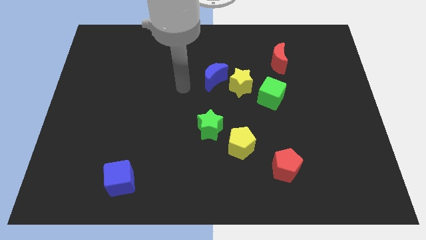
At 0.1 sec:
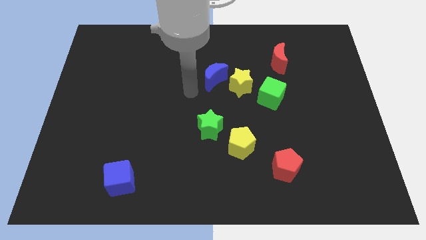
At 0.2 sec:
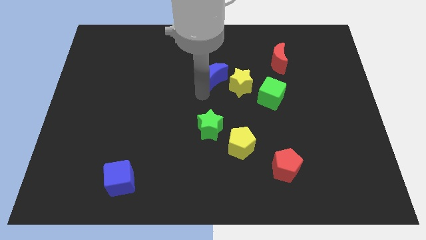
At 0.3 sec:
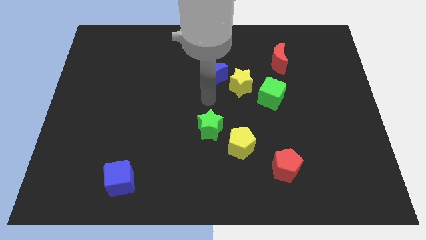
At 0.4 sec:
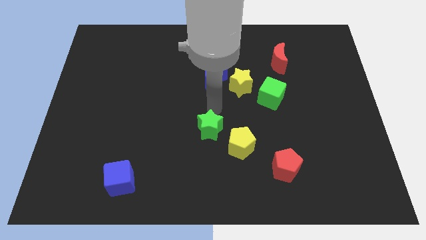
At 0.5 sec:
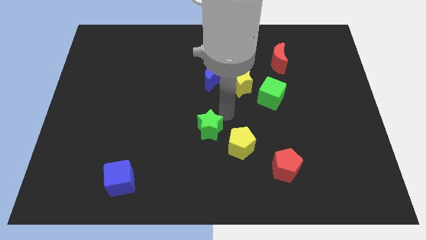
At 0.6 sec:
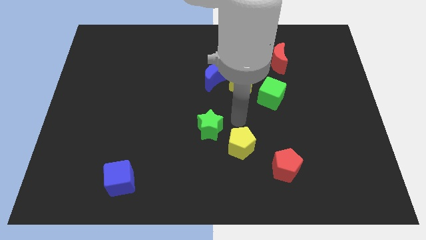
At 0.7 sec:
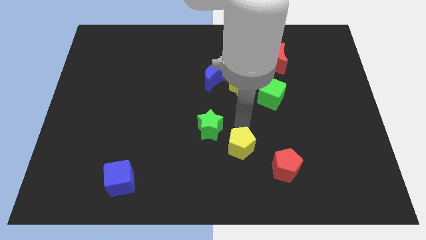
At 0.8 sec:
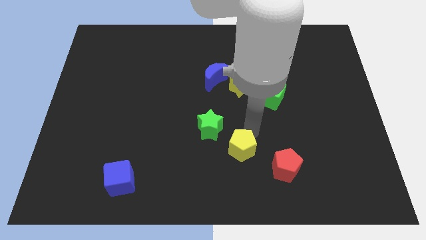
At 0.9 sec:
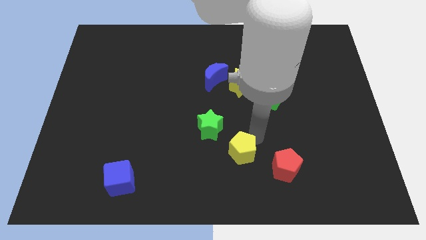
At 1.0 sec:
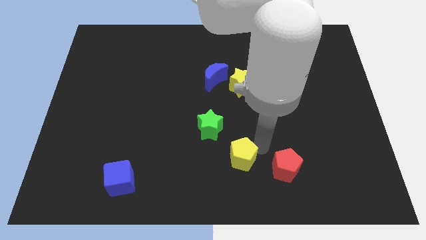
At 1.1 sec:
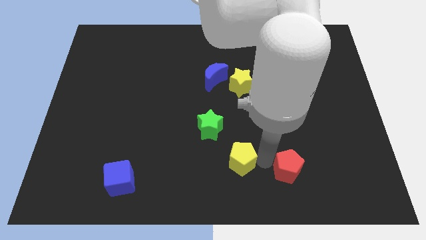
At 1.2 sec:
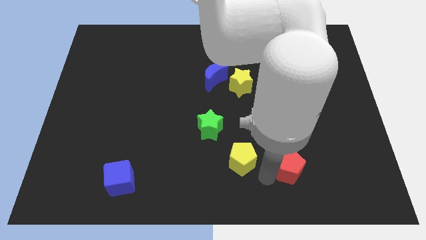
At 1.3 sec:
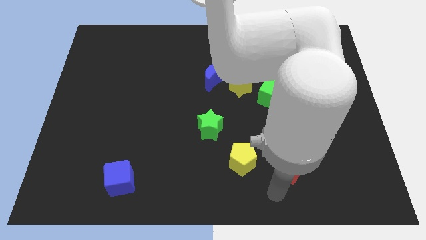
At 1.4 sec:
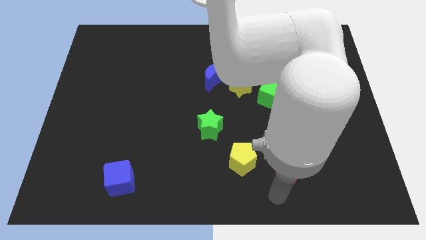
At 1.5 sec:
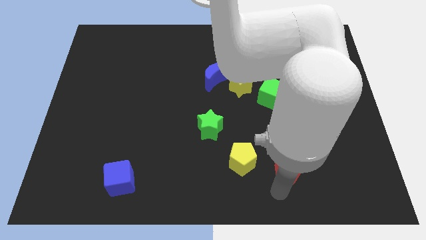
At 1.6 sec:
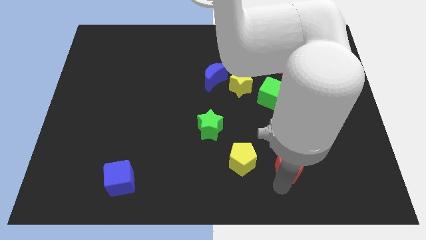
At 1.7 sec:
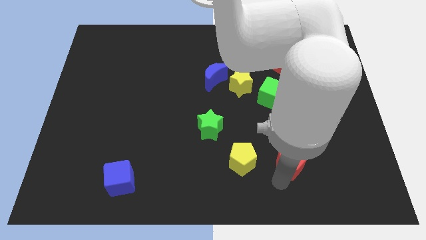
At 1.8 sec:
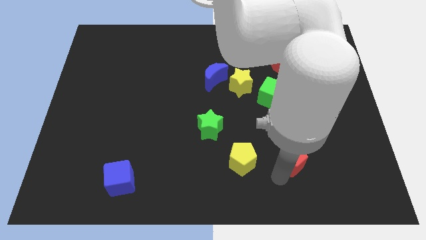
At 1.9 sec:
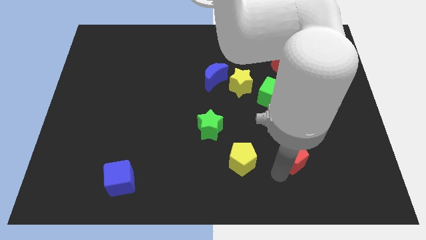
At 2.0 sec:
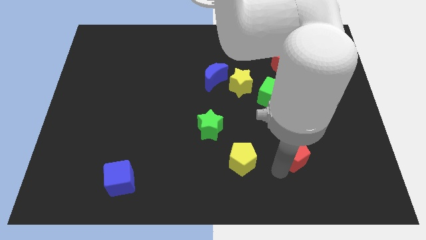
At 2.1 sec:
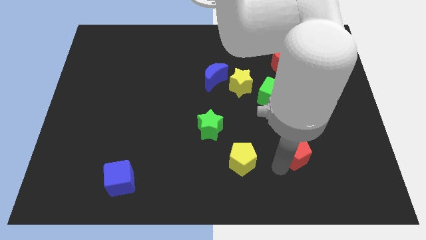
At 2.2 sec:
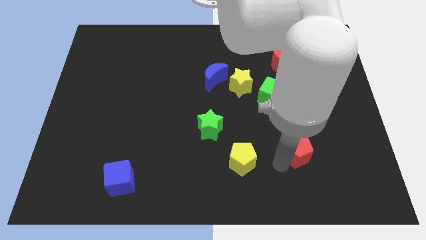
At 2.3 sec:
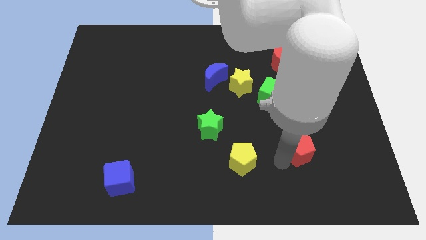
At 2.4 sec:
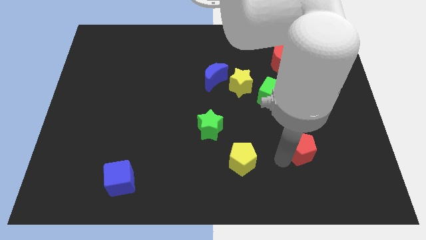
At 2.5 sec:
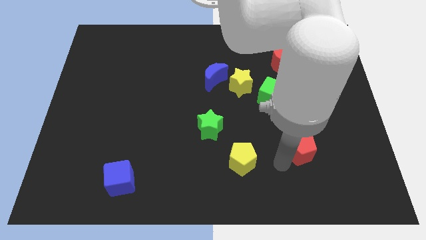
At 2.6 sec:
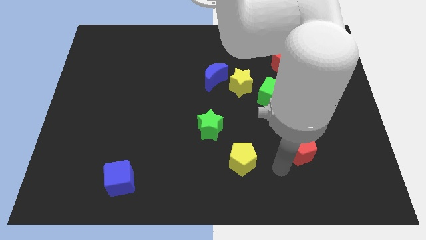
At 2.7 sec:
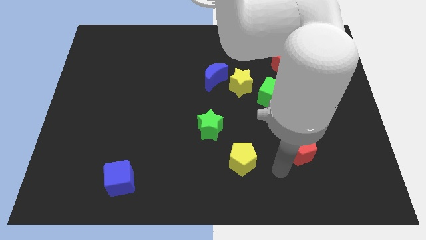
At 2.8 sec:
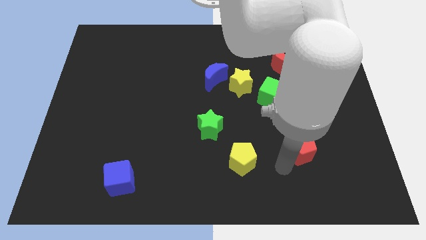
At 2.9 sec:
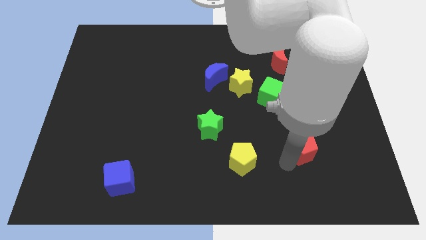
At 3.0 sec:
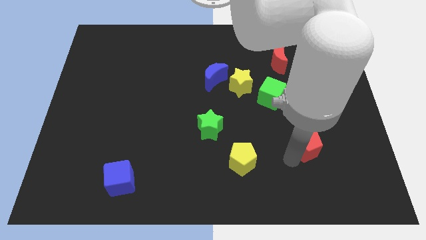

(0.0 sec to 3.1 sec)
slightly move the red pentagon diagonally upwards and to the right

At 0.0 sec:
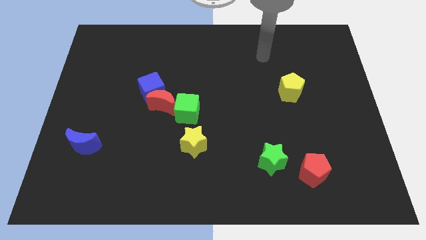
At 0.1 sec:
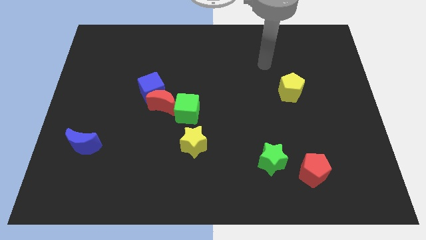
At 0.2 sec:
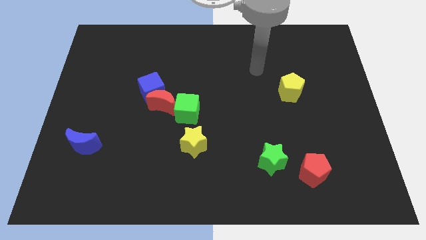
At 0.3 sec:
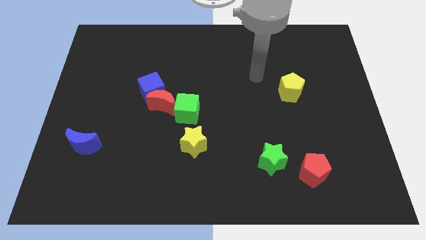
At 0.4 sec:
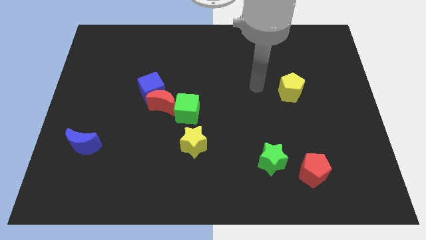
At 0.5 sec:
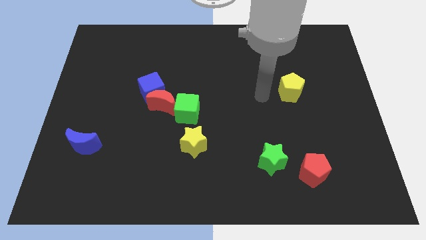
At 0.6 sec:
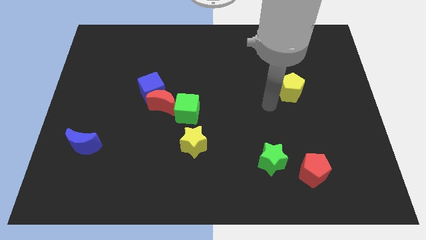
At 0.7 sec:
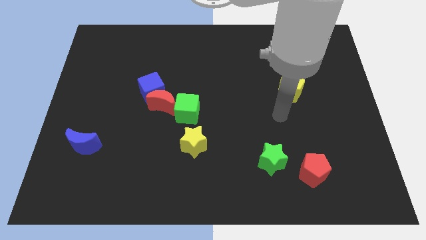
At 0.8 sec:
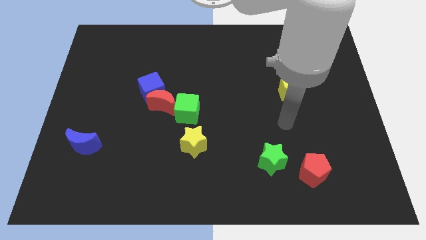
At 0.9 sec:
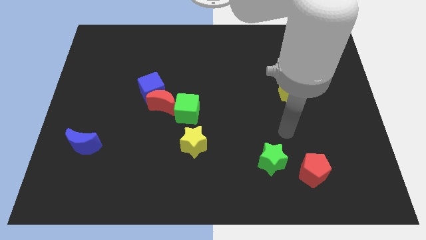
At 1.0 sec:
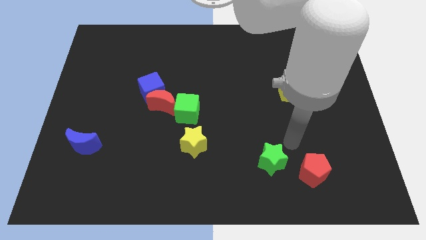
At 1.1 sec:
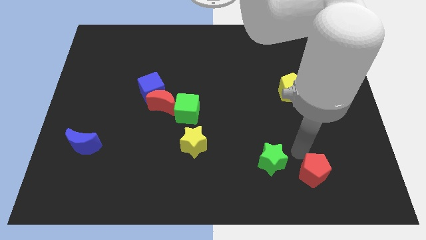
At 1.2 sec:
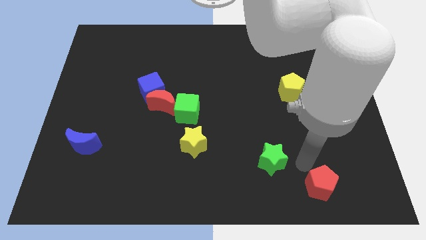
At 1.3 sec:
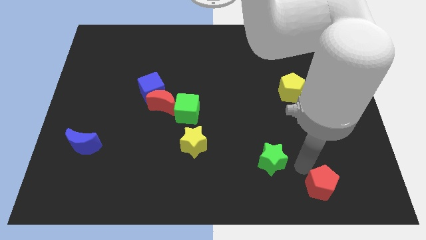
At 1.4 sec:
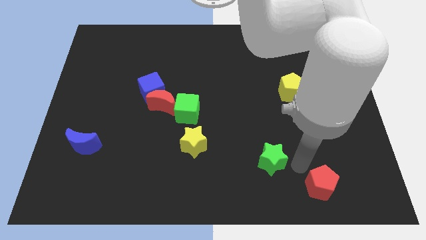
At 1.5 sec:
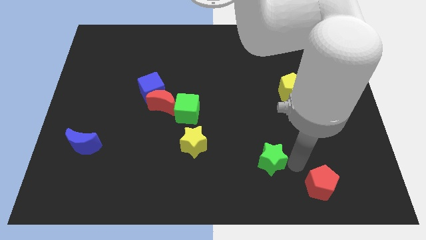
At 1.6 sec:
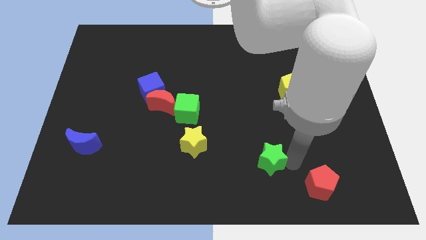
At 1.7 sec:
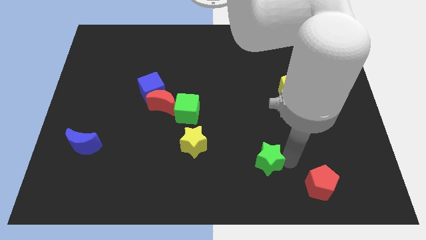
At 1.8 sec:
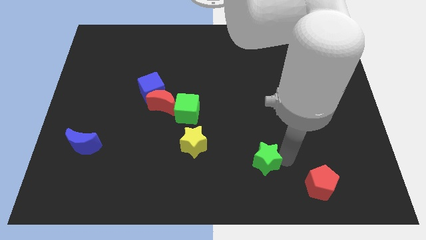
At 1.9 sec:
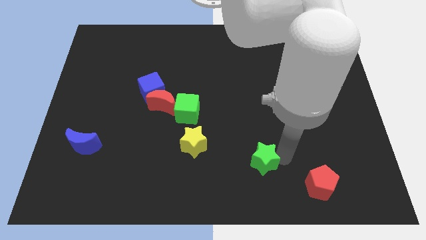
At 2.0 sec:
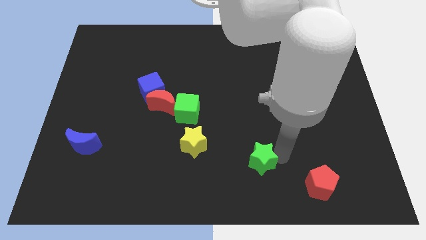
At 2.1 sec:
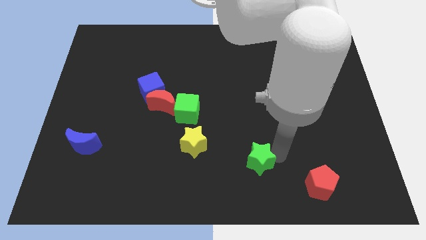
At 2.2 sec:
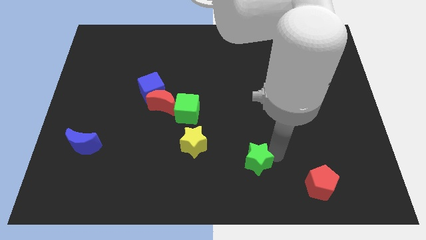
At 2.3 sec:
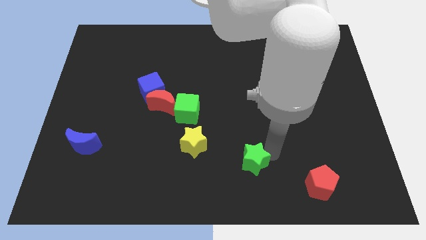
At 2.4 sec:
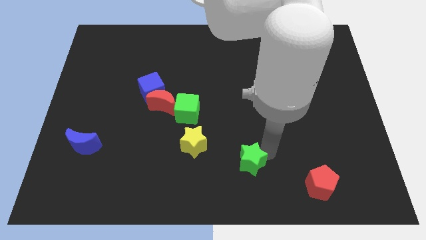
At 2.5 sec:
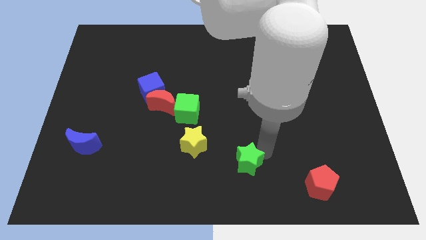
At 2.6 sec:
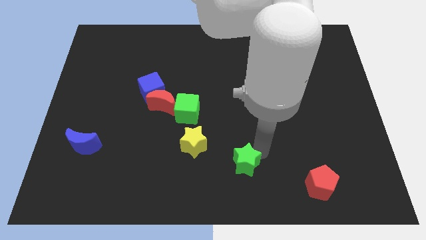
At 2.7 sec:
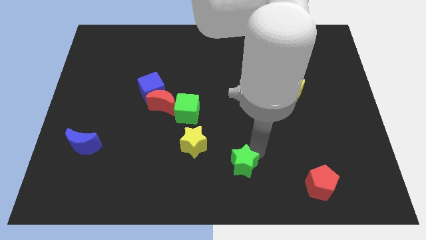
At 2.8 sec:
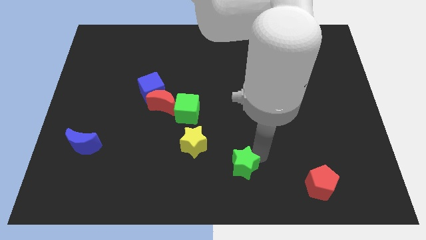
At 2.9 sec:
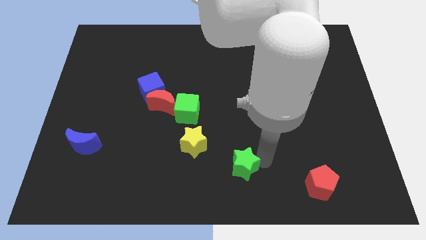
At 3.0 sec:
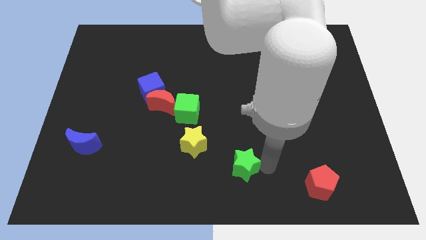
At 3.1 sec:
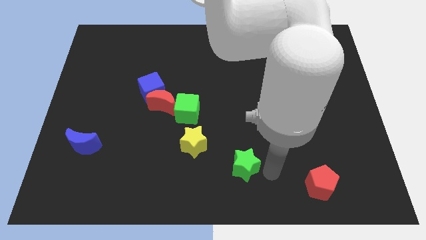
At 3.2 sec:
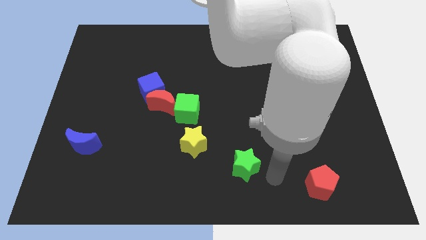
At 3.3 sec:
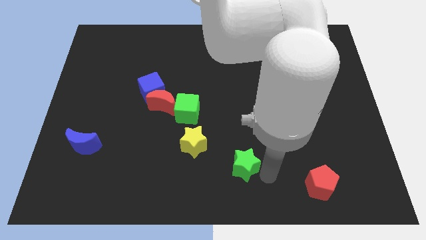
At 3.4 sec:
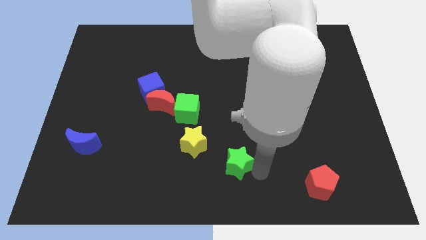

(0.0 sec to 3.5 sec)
slightly move the green star to the left

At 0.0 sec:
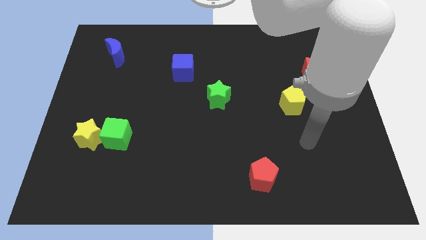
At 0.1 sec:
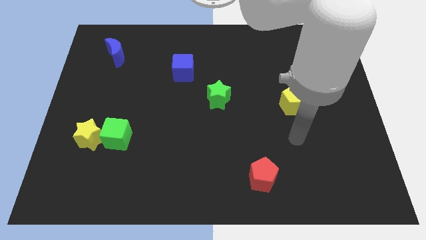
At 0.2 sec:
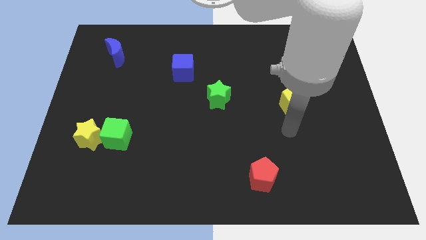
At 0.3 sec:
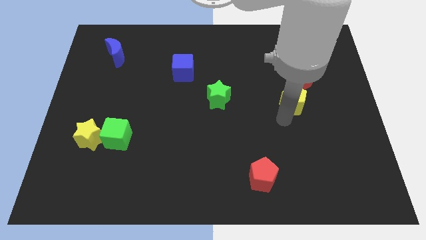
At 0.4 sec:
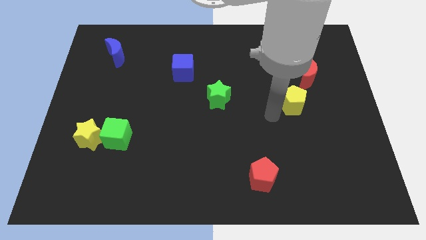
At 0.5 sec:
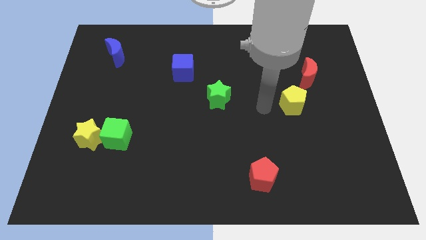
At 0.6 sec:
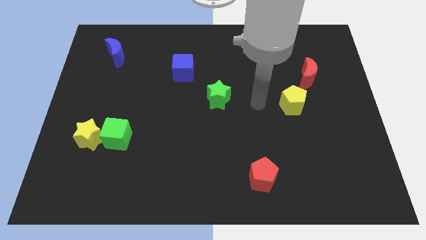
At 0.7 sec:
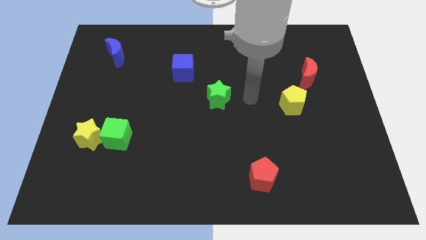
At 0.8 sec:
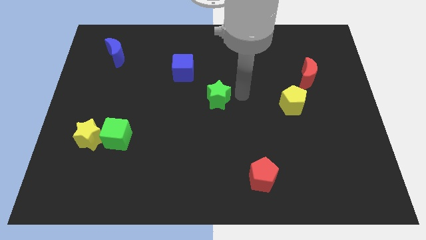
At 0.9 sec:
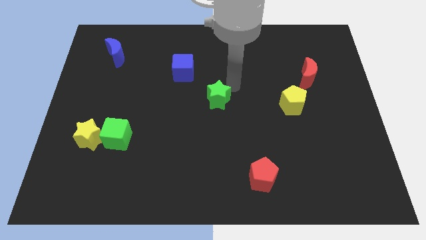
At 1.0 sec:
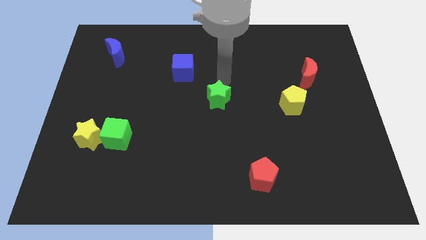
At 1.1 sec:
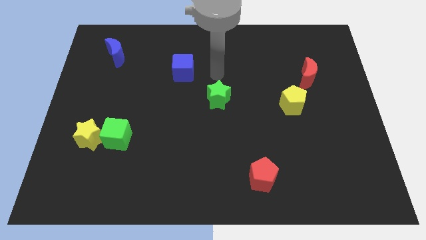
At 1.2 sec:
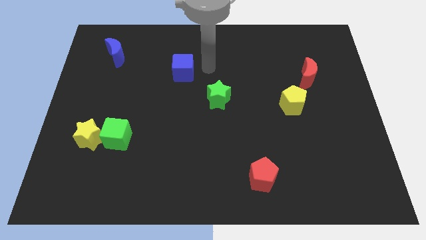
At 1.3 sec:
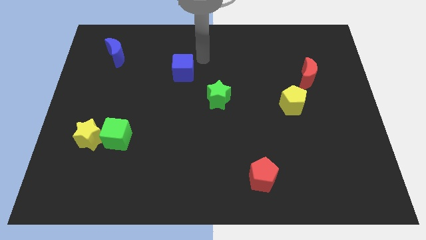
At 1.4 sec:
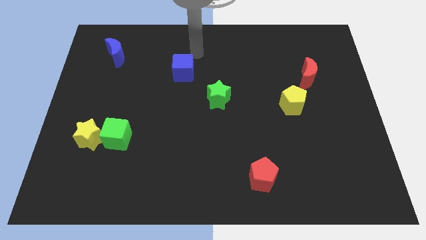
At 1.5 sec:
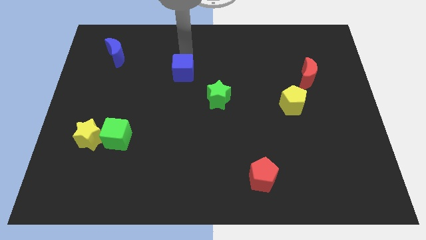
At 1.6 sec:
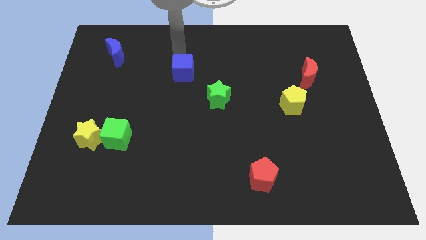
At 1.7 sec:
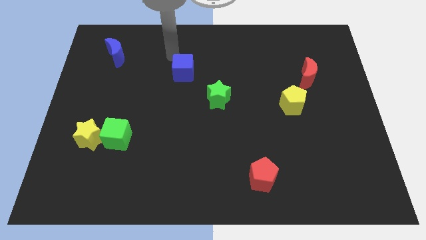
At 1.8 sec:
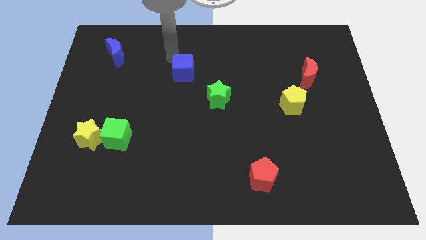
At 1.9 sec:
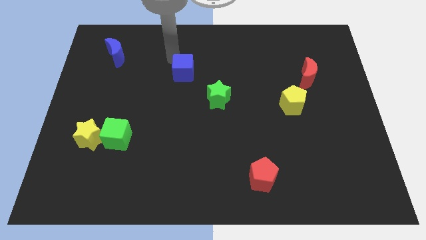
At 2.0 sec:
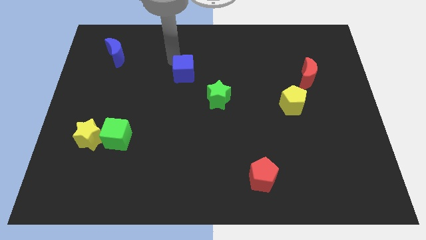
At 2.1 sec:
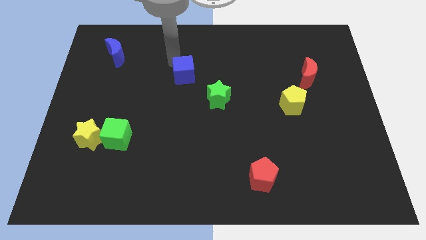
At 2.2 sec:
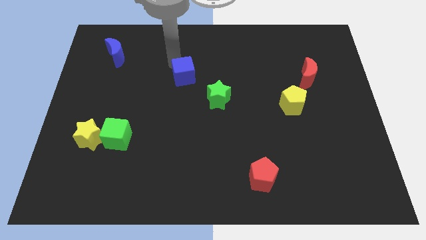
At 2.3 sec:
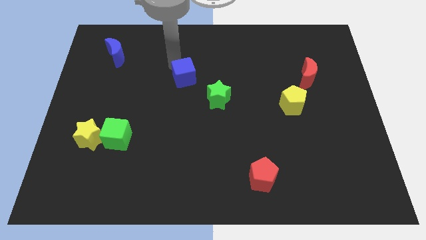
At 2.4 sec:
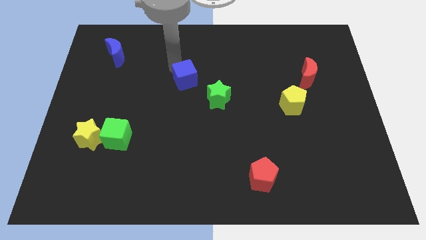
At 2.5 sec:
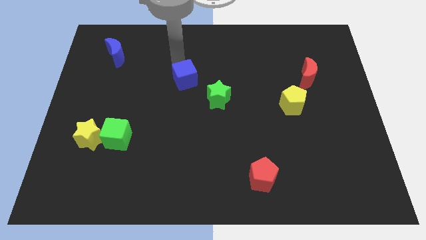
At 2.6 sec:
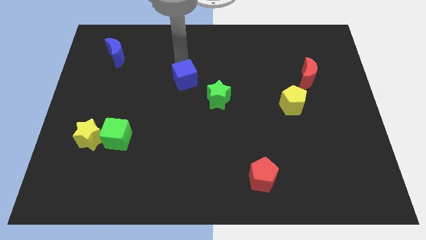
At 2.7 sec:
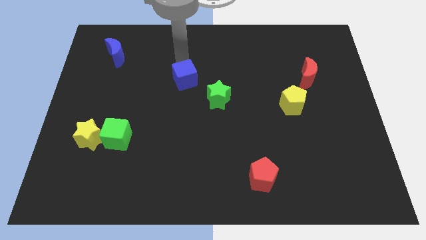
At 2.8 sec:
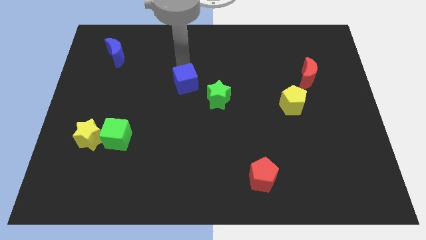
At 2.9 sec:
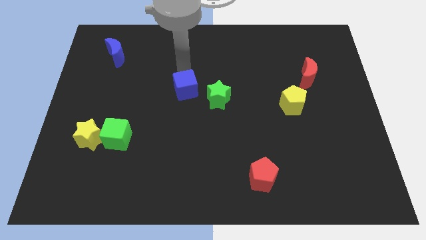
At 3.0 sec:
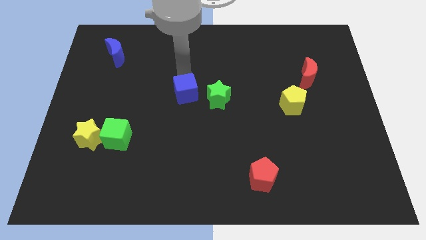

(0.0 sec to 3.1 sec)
slightly move the blue cube down
